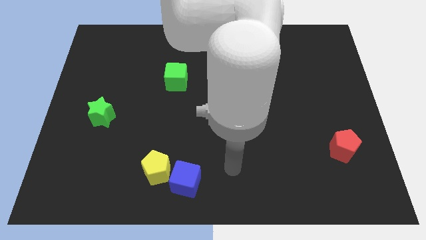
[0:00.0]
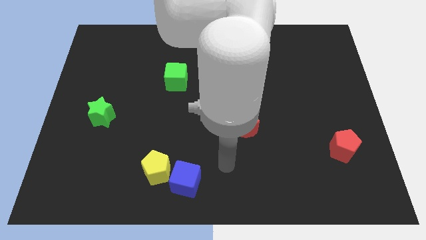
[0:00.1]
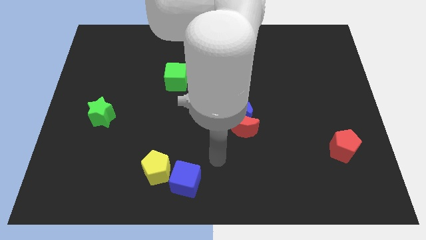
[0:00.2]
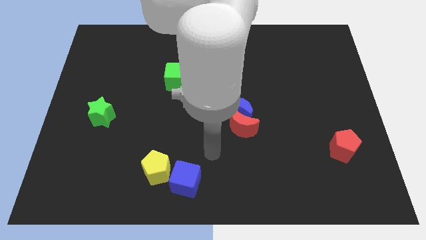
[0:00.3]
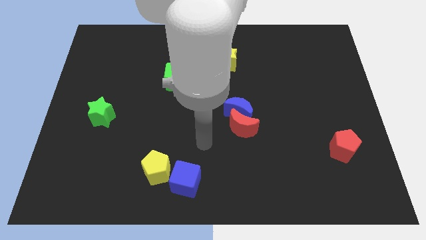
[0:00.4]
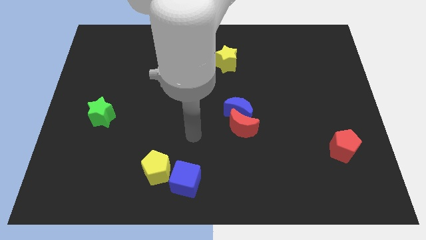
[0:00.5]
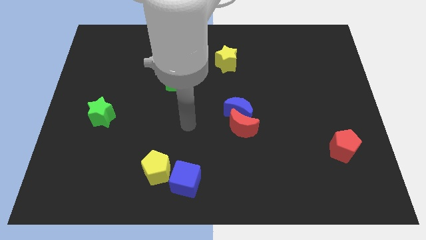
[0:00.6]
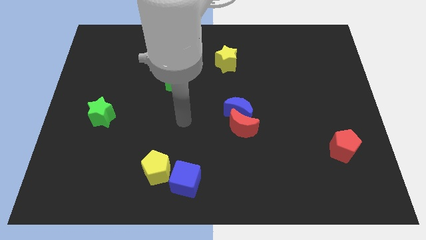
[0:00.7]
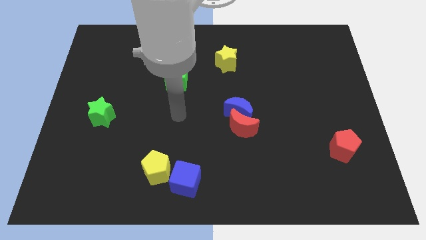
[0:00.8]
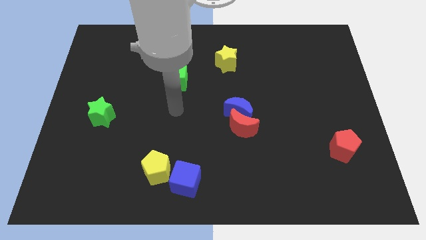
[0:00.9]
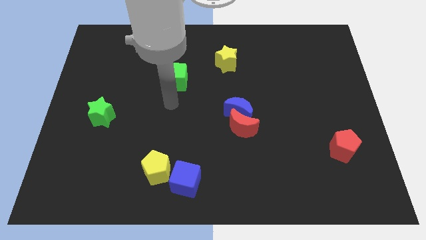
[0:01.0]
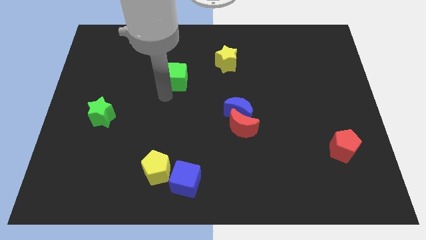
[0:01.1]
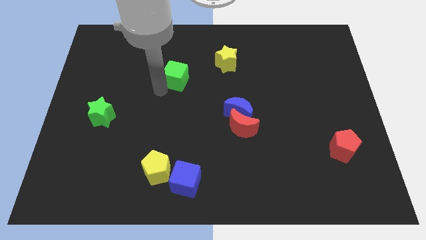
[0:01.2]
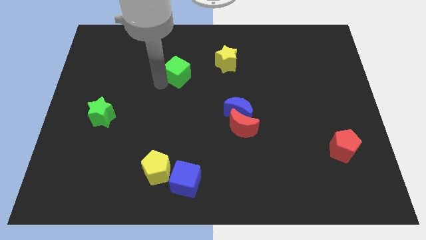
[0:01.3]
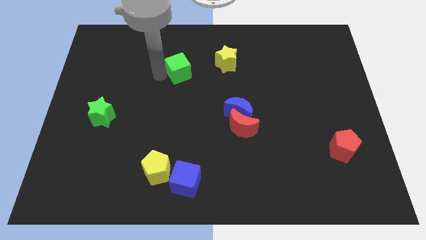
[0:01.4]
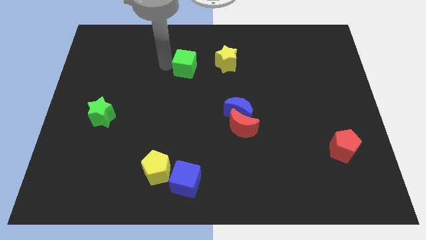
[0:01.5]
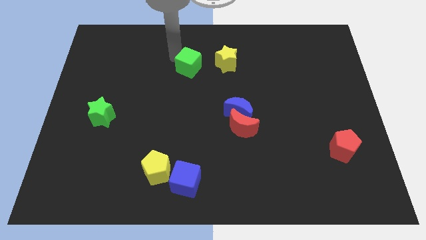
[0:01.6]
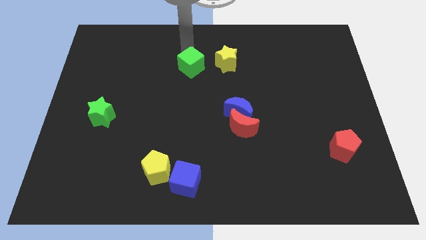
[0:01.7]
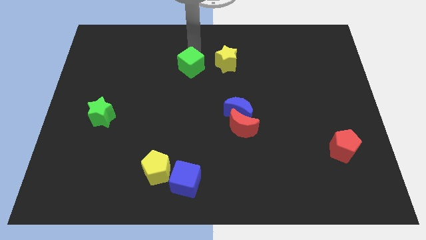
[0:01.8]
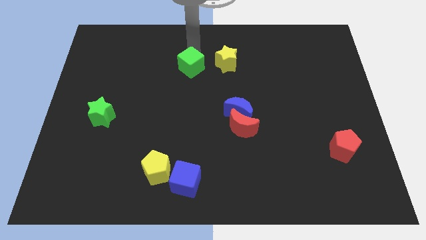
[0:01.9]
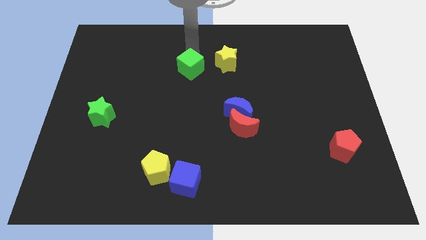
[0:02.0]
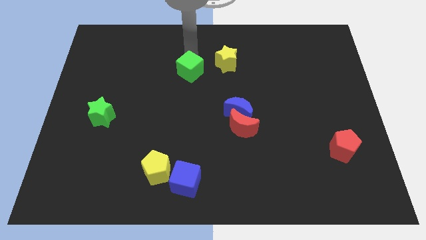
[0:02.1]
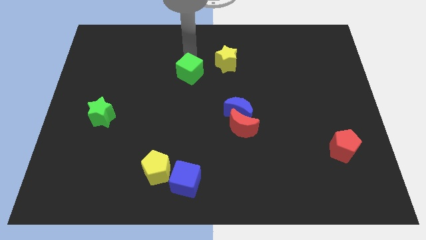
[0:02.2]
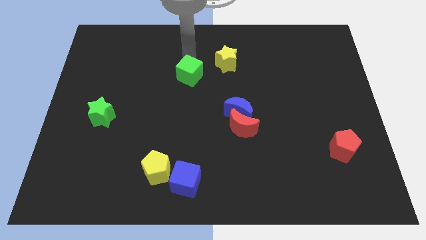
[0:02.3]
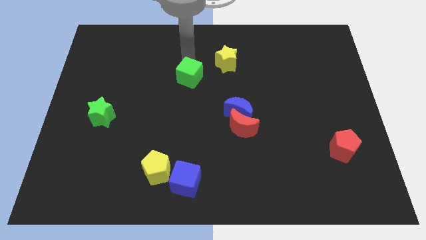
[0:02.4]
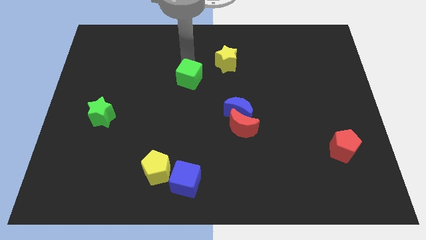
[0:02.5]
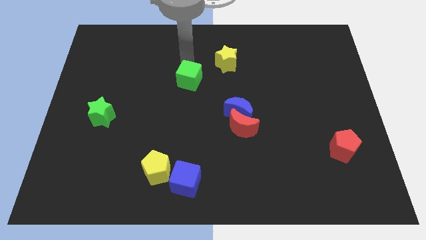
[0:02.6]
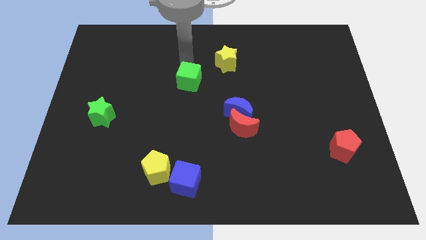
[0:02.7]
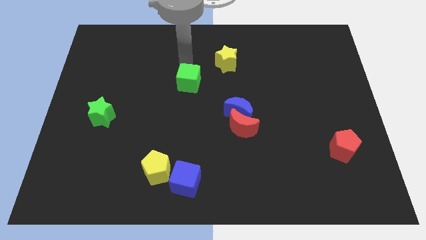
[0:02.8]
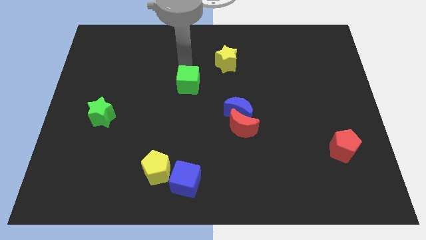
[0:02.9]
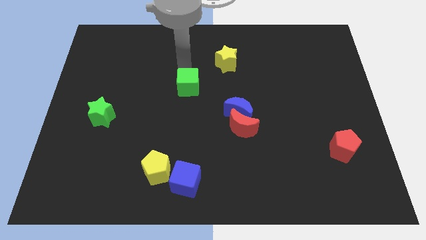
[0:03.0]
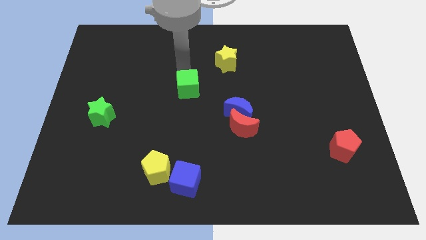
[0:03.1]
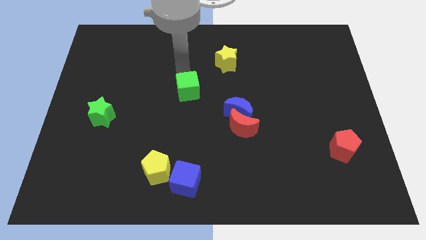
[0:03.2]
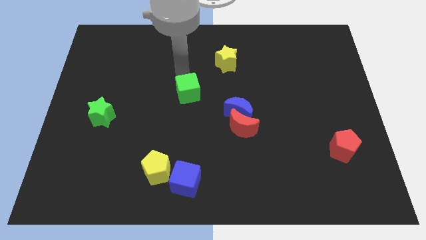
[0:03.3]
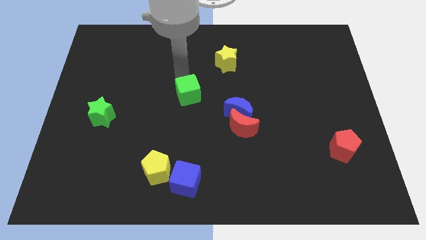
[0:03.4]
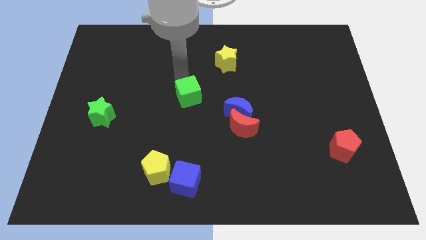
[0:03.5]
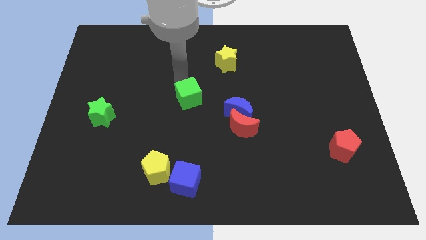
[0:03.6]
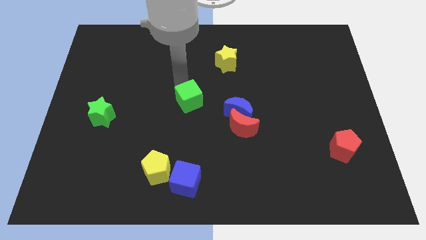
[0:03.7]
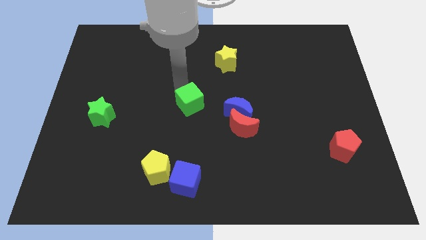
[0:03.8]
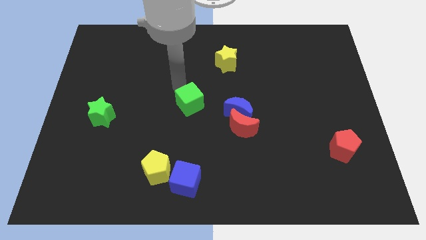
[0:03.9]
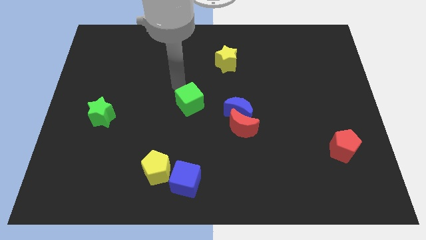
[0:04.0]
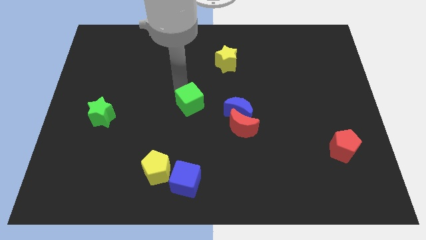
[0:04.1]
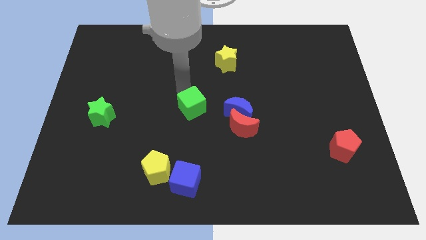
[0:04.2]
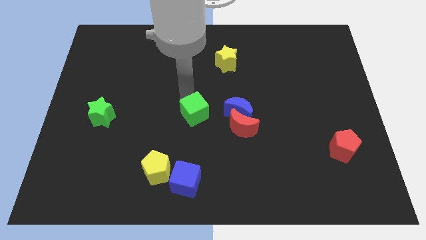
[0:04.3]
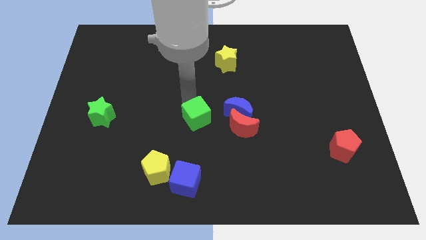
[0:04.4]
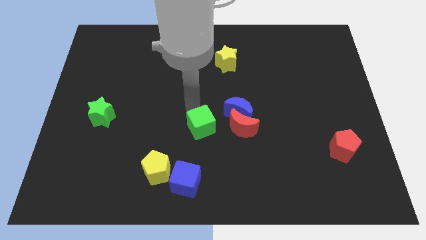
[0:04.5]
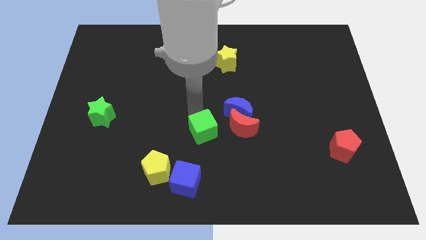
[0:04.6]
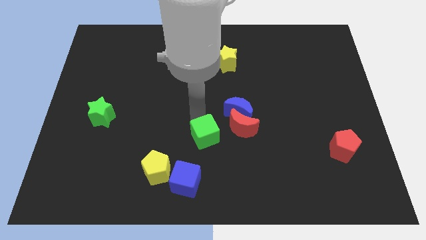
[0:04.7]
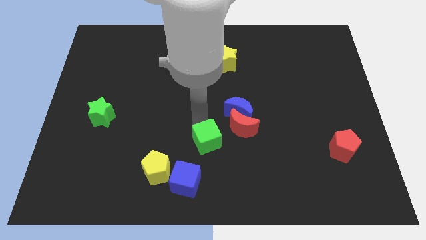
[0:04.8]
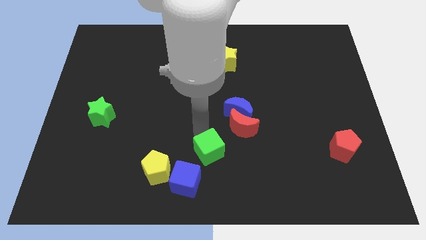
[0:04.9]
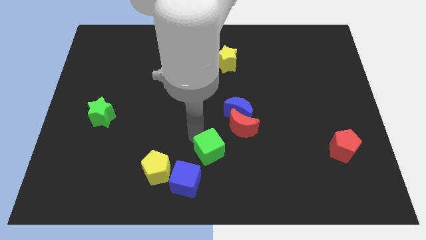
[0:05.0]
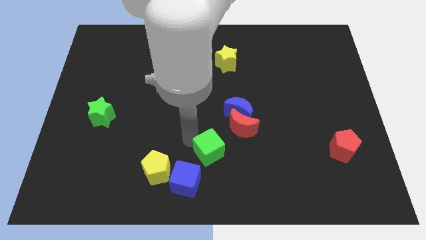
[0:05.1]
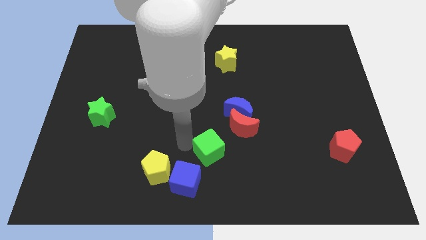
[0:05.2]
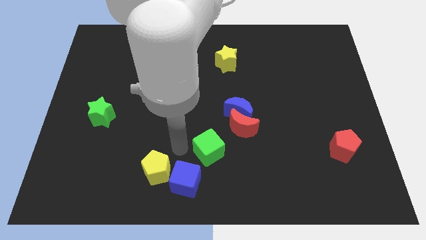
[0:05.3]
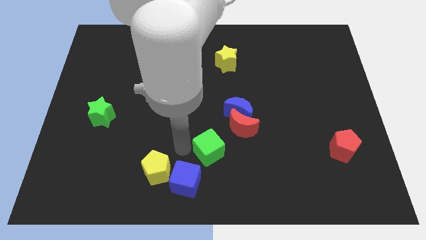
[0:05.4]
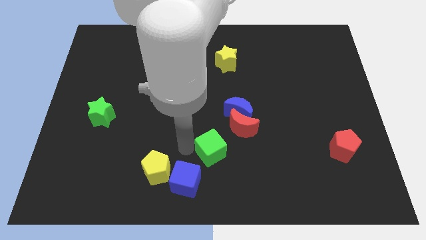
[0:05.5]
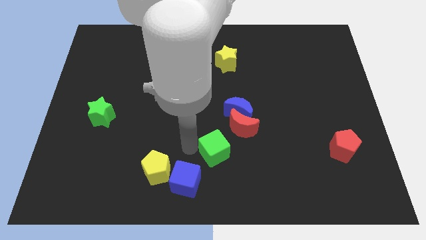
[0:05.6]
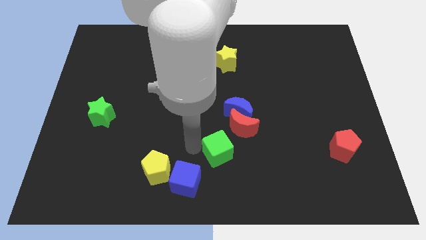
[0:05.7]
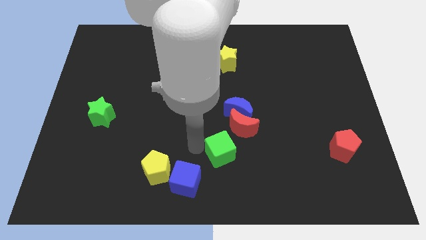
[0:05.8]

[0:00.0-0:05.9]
slide the green cube diagonally down and right

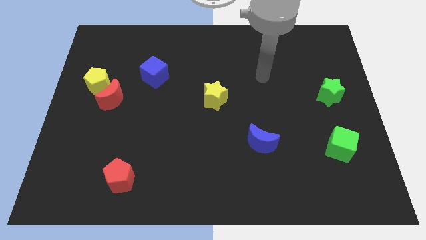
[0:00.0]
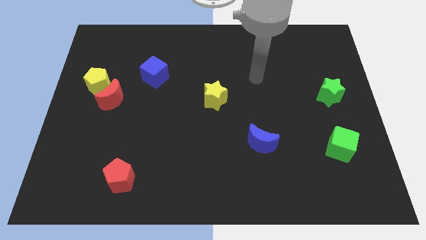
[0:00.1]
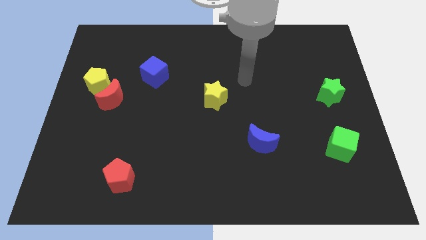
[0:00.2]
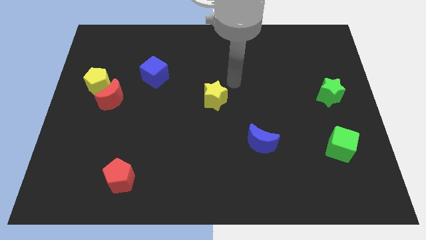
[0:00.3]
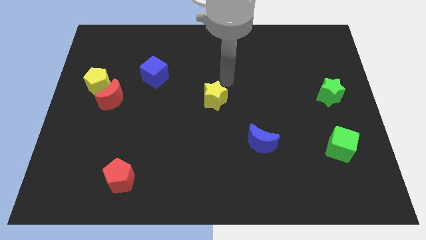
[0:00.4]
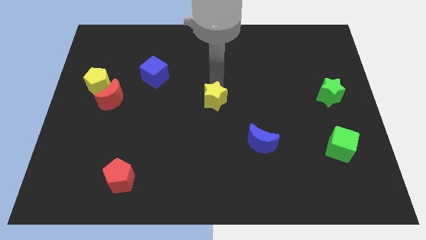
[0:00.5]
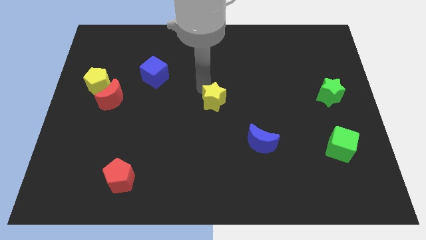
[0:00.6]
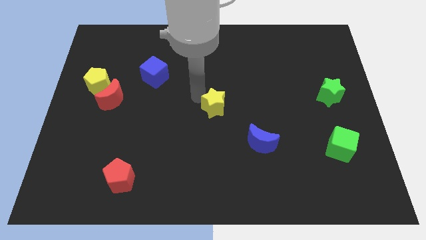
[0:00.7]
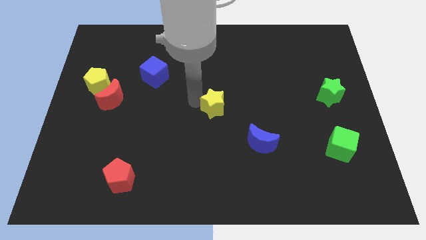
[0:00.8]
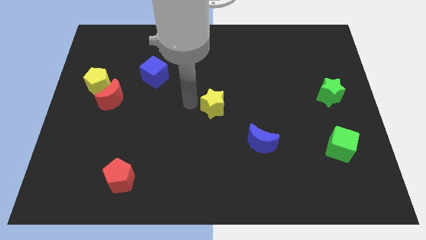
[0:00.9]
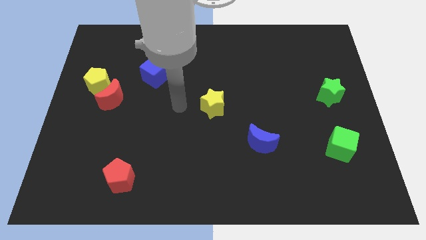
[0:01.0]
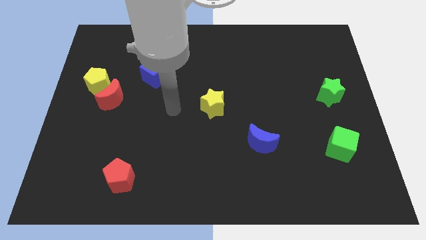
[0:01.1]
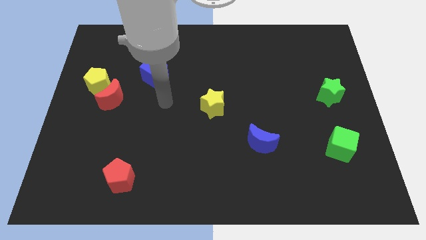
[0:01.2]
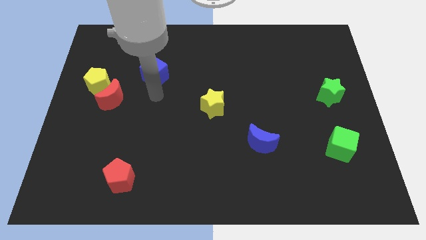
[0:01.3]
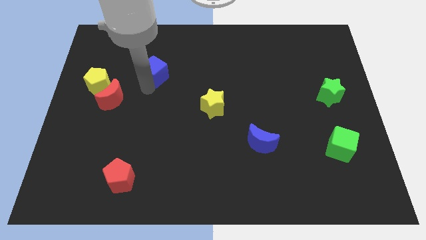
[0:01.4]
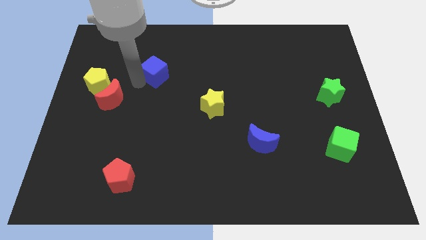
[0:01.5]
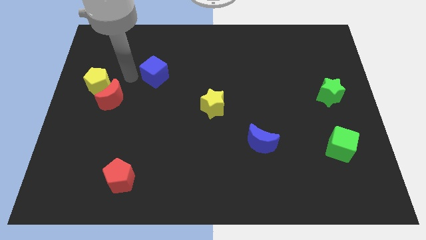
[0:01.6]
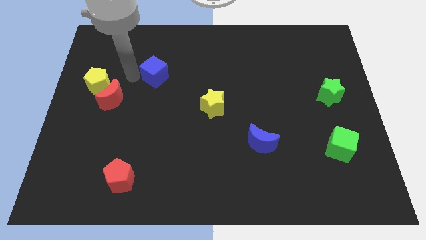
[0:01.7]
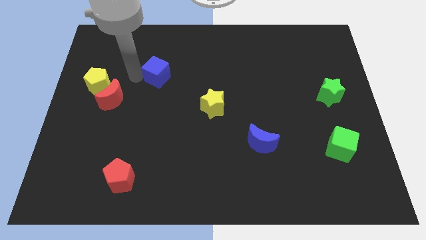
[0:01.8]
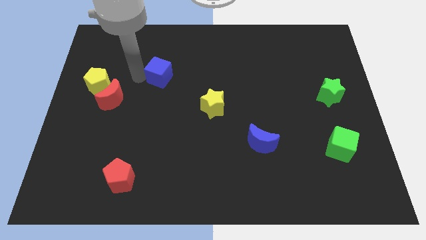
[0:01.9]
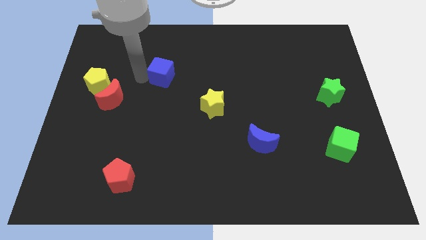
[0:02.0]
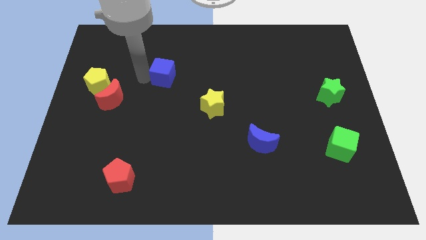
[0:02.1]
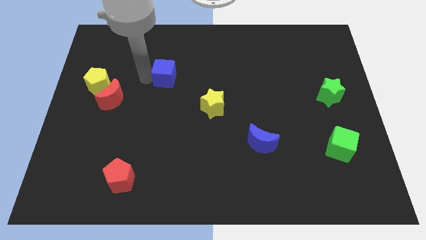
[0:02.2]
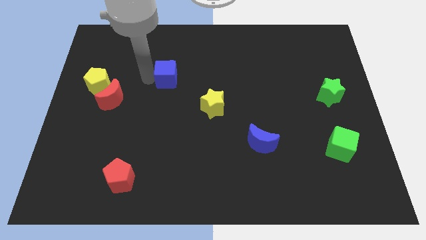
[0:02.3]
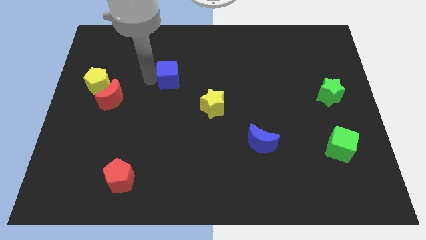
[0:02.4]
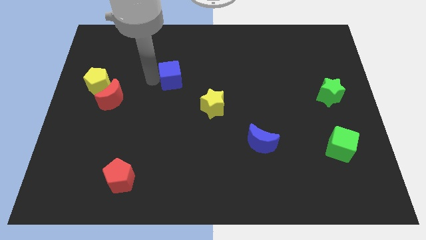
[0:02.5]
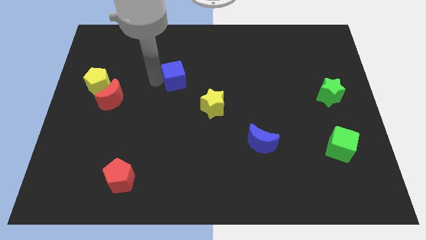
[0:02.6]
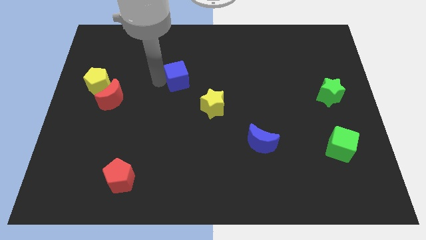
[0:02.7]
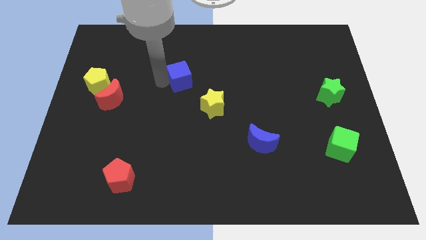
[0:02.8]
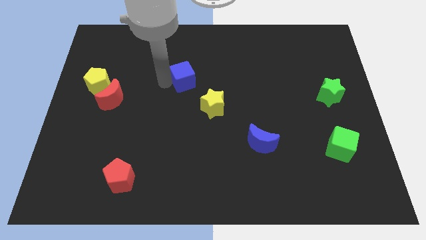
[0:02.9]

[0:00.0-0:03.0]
move the blue cube a bit to the right
